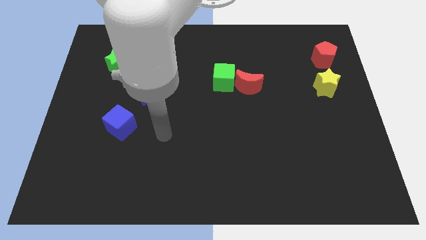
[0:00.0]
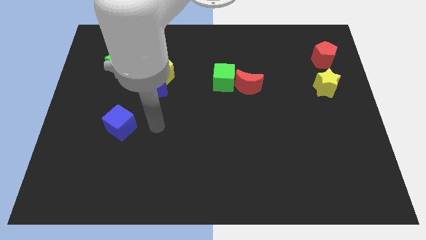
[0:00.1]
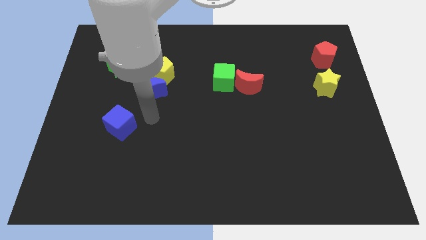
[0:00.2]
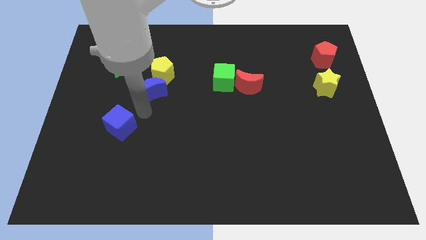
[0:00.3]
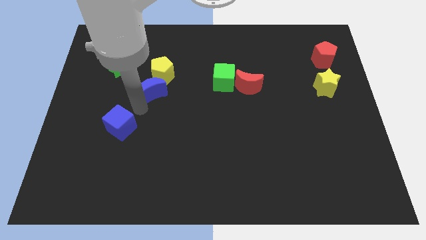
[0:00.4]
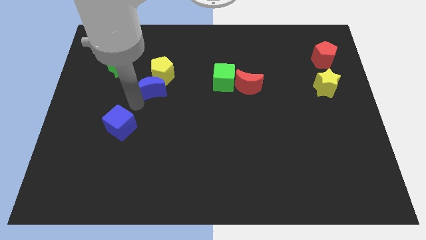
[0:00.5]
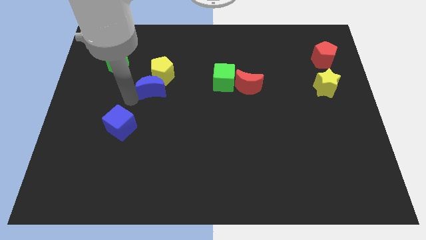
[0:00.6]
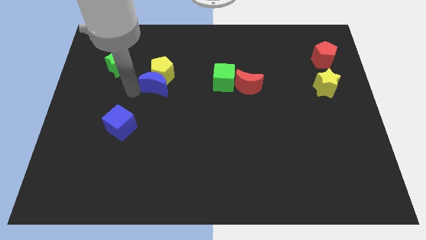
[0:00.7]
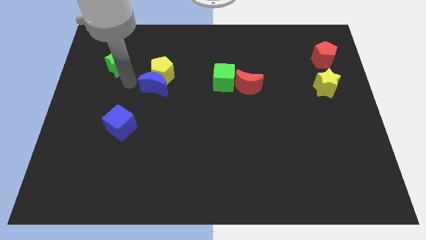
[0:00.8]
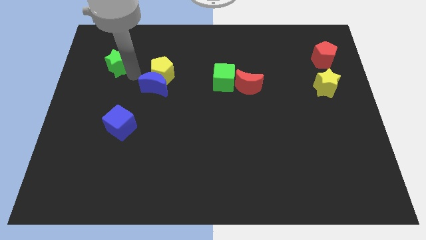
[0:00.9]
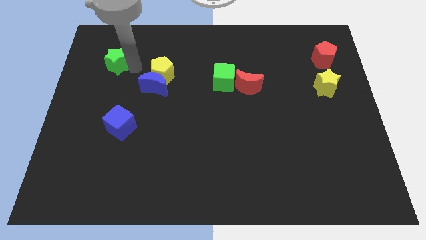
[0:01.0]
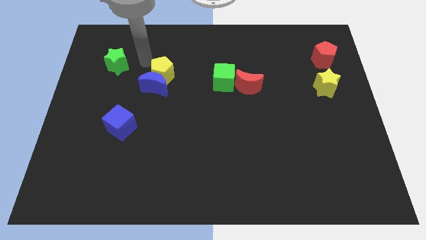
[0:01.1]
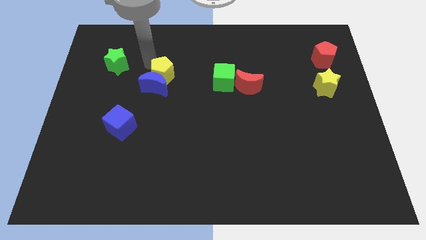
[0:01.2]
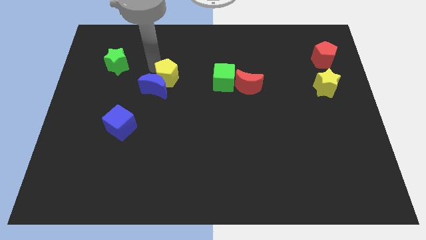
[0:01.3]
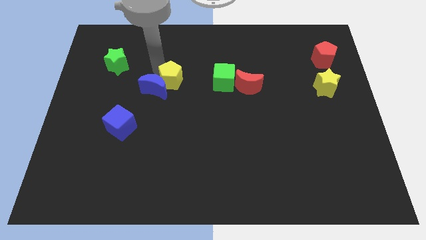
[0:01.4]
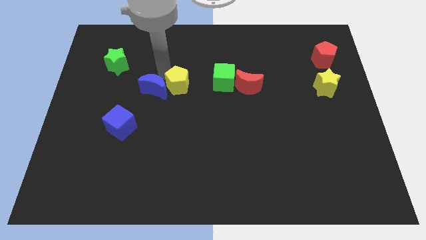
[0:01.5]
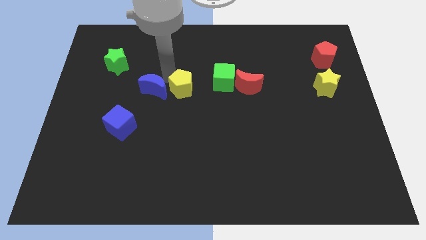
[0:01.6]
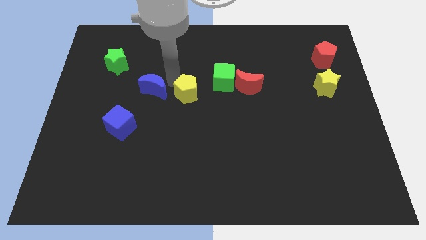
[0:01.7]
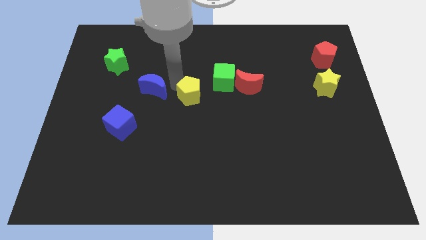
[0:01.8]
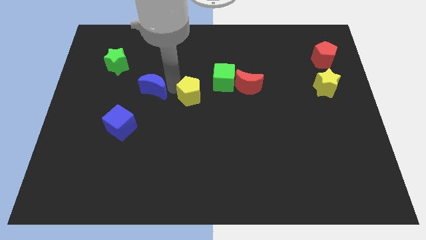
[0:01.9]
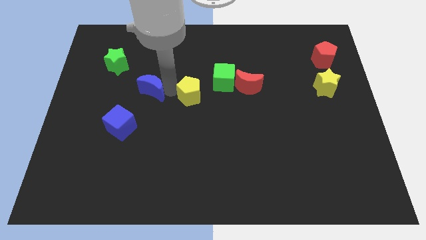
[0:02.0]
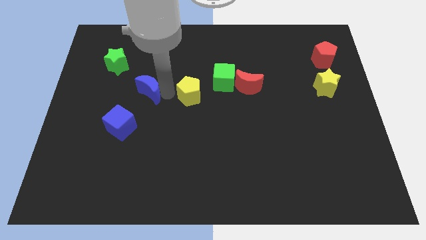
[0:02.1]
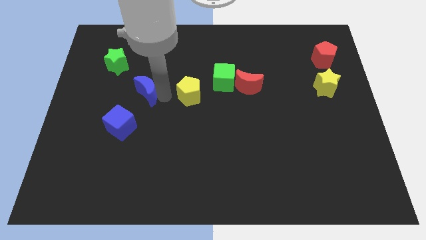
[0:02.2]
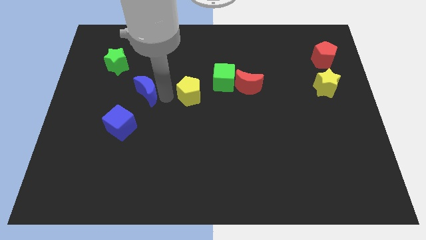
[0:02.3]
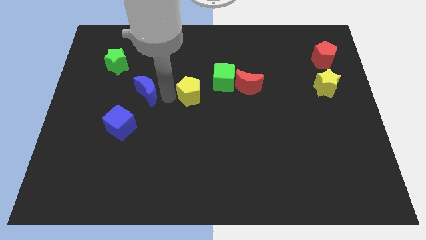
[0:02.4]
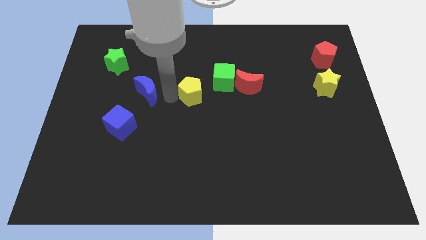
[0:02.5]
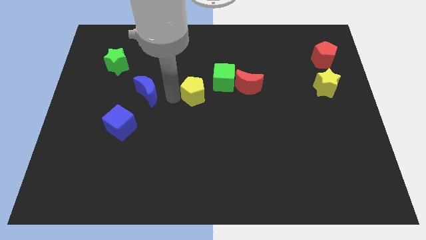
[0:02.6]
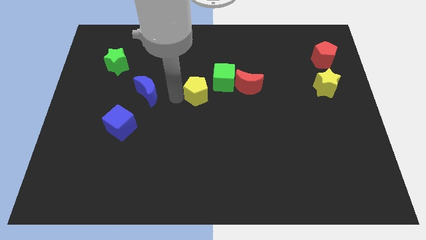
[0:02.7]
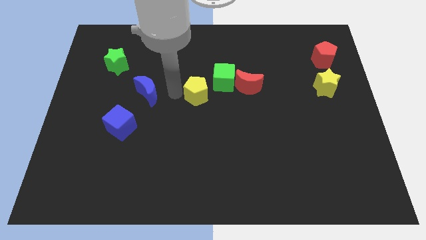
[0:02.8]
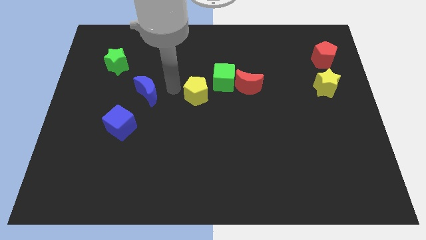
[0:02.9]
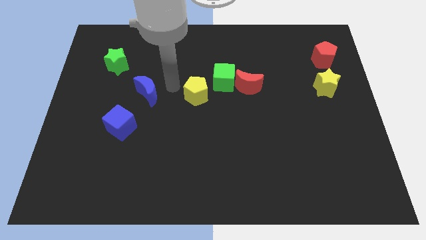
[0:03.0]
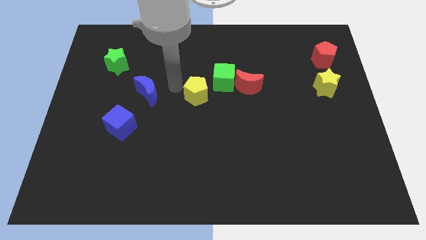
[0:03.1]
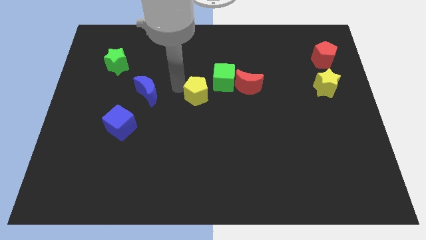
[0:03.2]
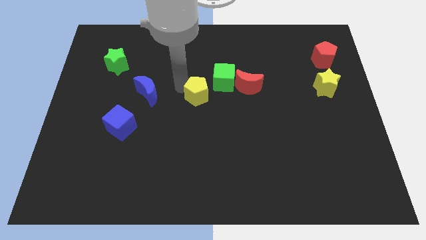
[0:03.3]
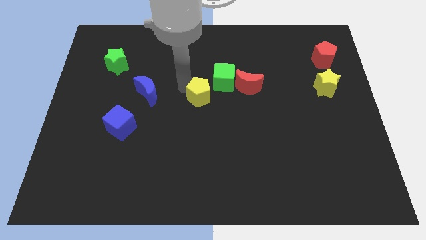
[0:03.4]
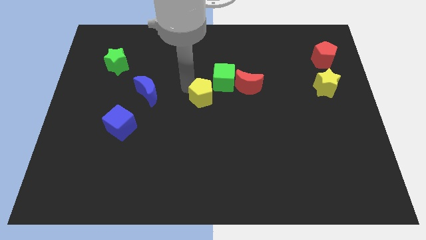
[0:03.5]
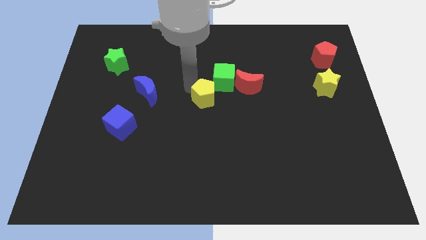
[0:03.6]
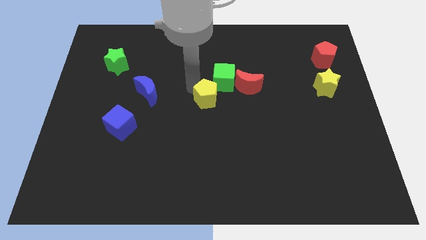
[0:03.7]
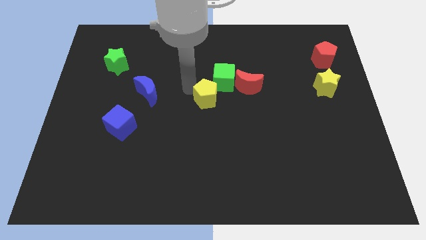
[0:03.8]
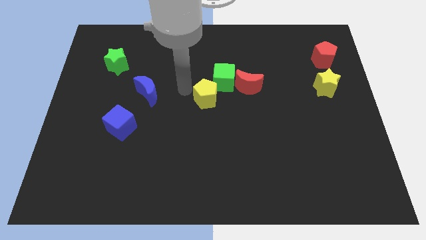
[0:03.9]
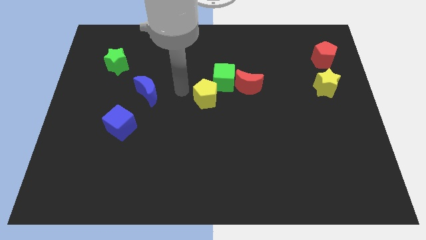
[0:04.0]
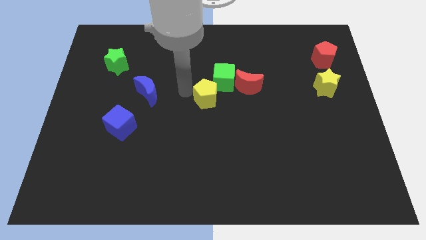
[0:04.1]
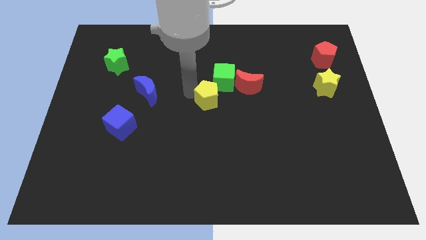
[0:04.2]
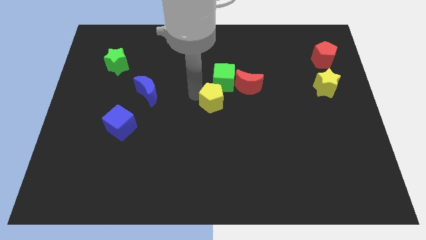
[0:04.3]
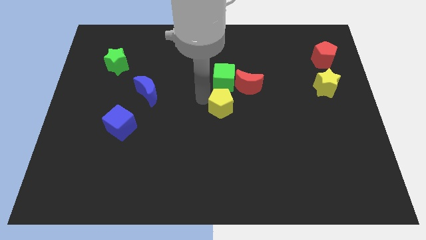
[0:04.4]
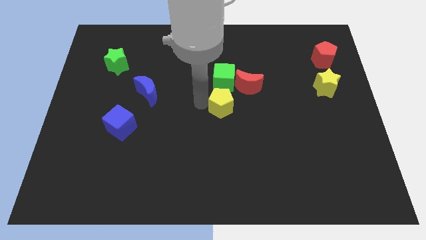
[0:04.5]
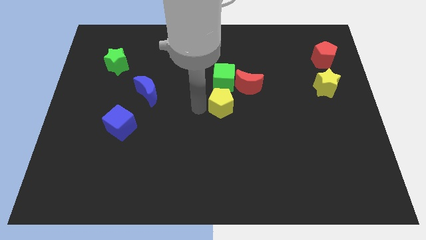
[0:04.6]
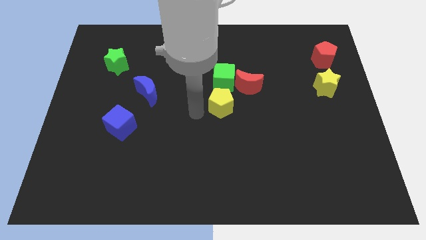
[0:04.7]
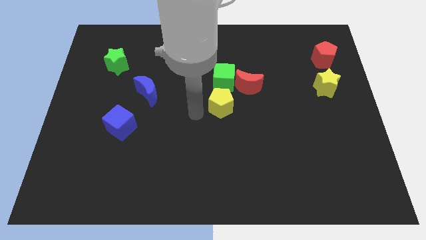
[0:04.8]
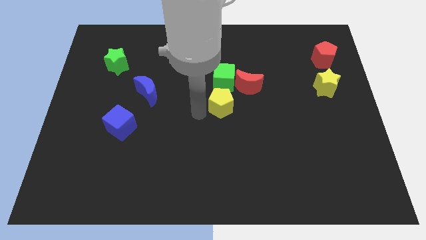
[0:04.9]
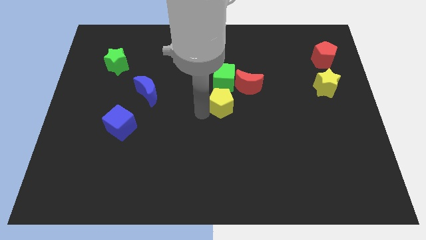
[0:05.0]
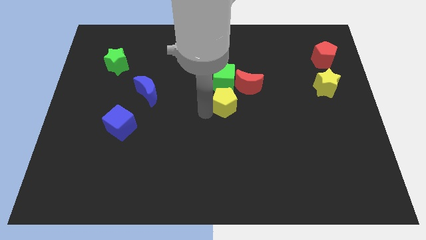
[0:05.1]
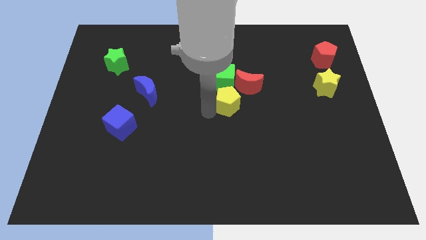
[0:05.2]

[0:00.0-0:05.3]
move the yellow pentagon diagonally down and to the right of the green cube

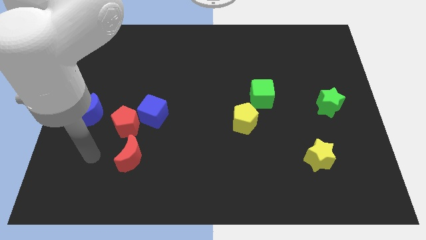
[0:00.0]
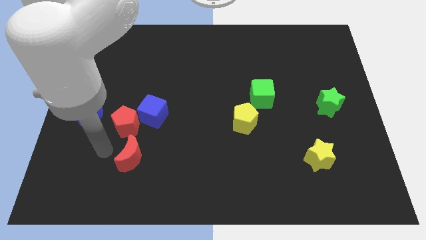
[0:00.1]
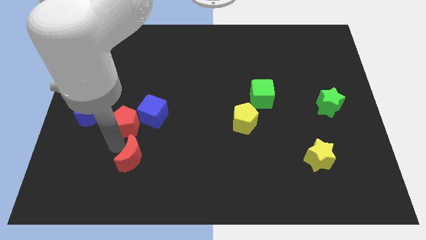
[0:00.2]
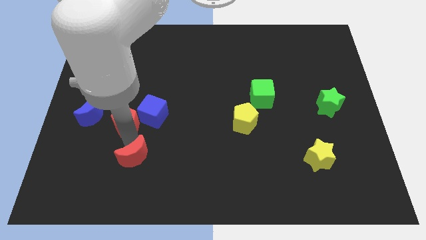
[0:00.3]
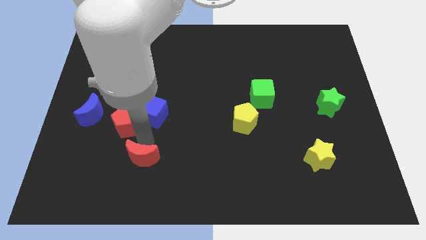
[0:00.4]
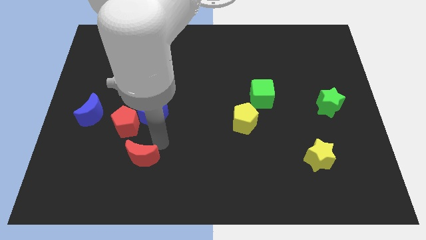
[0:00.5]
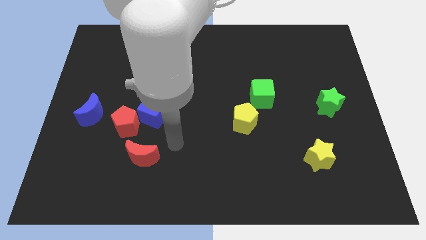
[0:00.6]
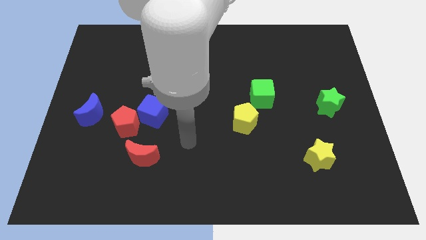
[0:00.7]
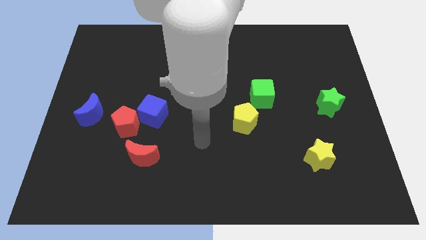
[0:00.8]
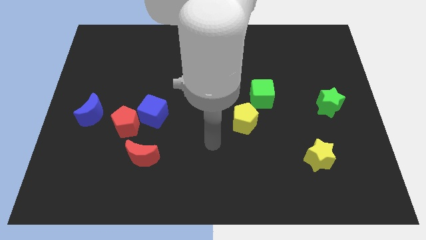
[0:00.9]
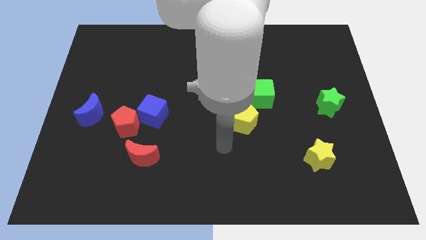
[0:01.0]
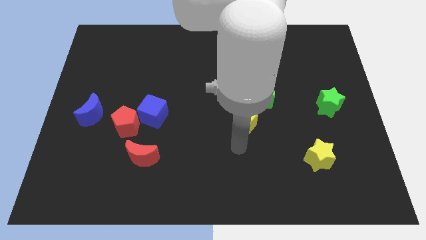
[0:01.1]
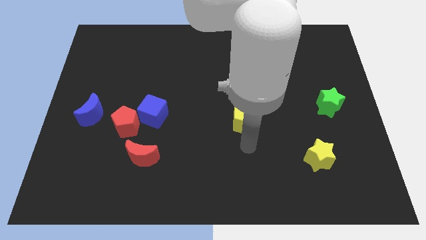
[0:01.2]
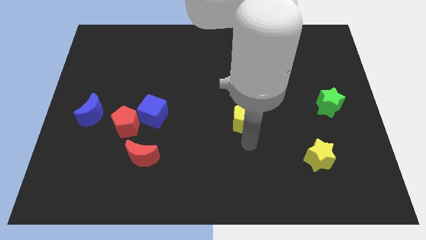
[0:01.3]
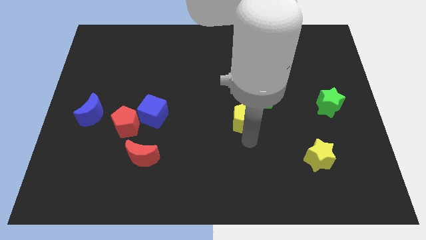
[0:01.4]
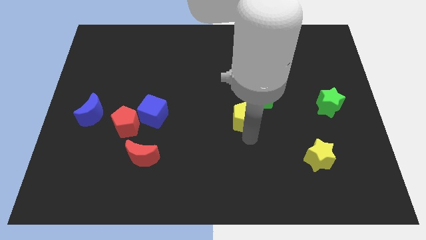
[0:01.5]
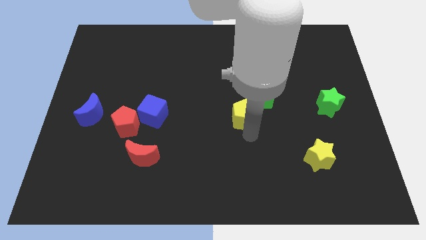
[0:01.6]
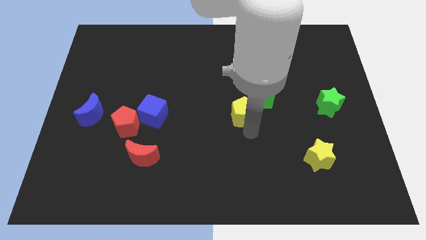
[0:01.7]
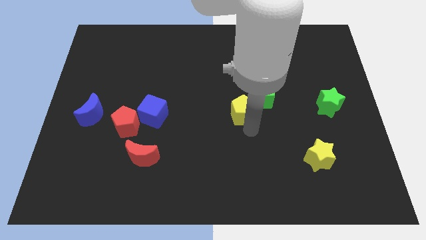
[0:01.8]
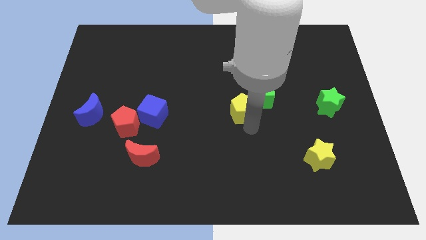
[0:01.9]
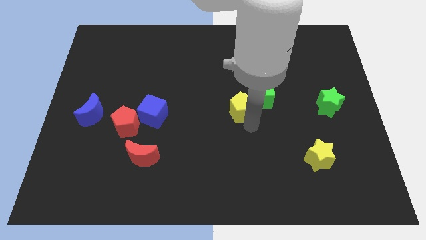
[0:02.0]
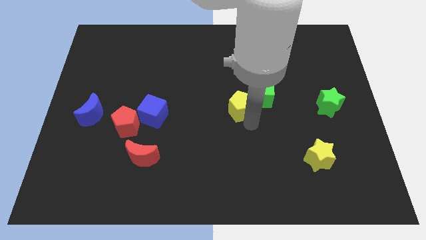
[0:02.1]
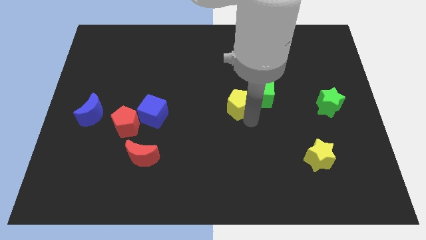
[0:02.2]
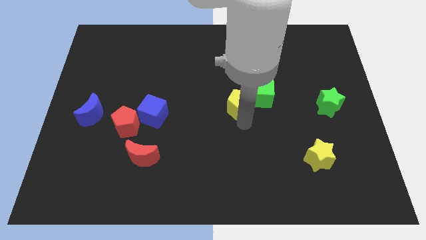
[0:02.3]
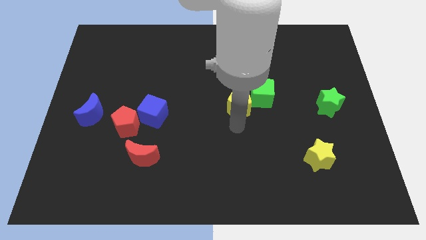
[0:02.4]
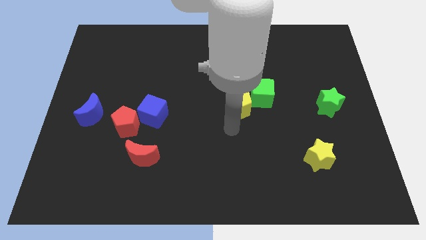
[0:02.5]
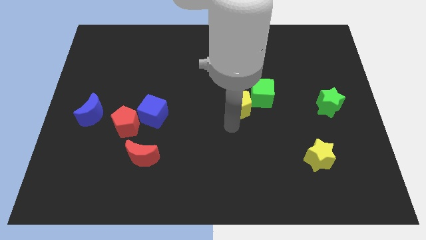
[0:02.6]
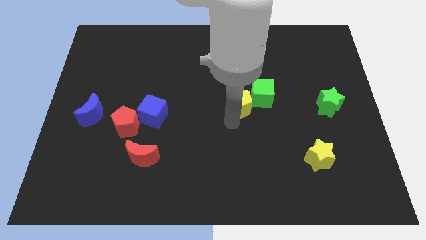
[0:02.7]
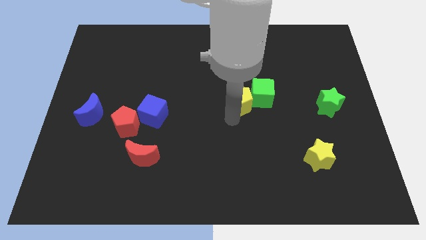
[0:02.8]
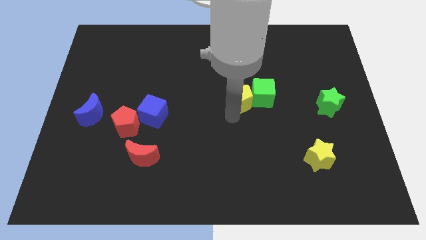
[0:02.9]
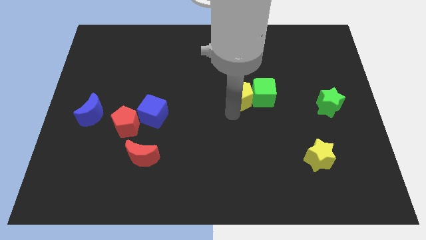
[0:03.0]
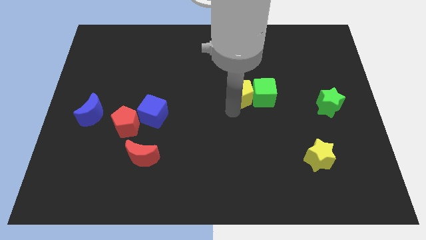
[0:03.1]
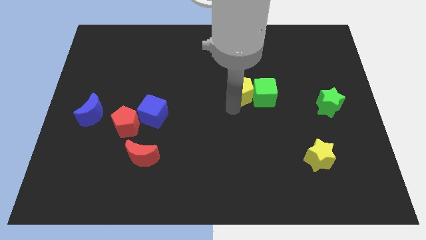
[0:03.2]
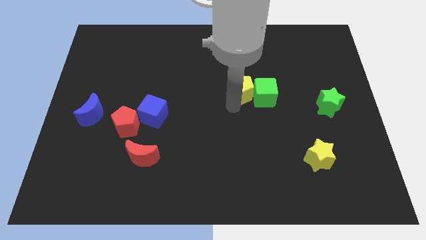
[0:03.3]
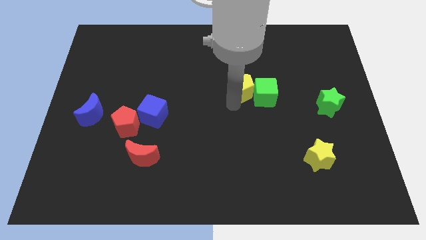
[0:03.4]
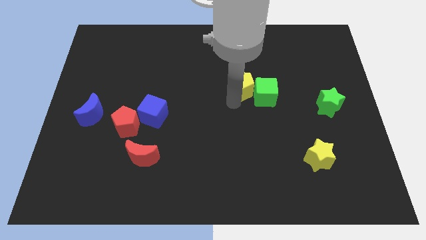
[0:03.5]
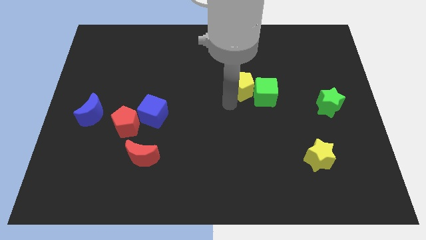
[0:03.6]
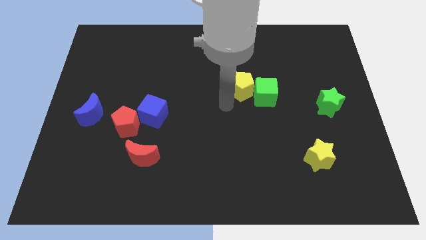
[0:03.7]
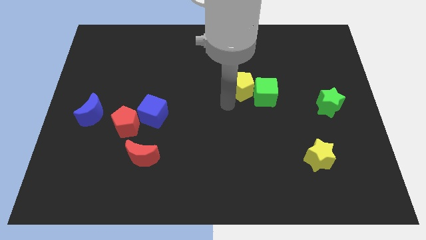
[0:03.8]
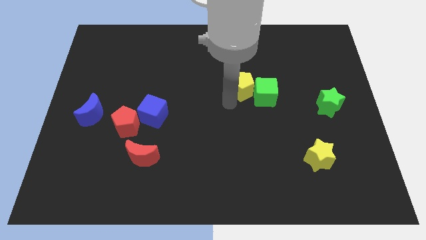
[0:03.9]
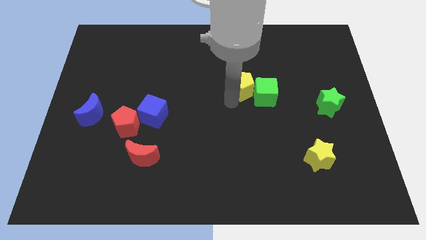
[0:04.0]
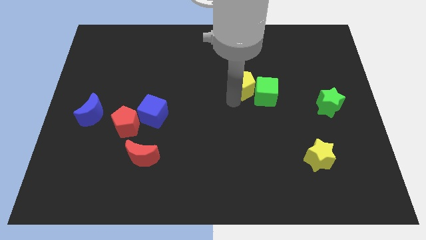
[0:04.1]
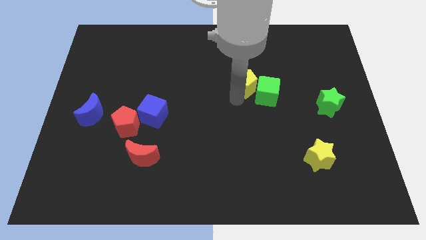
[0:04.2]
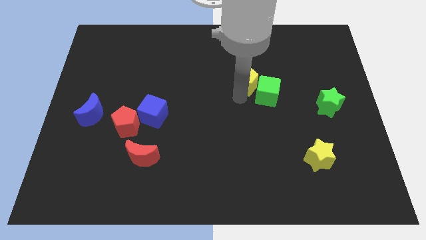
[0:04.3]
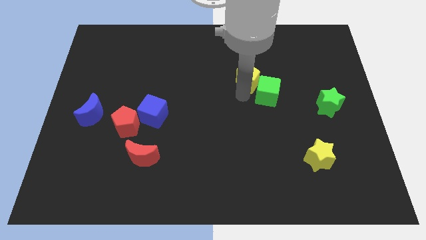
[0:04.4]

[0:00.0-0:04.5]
move the yellow pentagon to the top of the green cube
